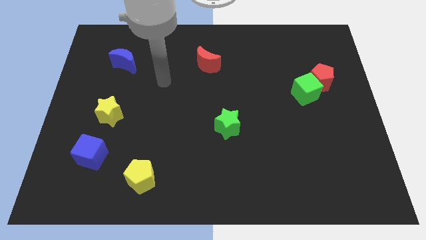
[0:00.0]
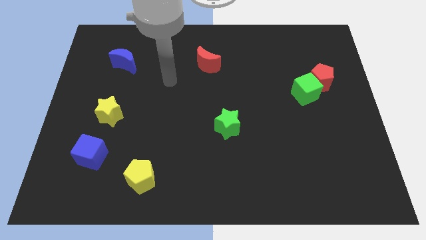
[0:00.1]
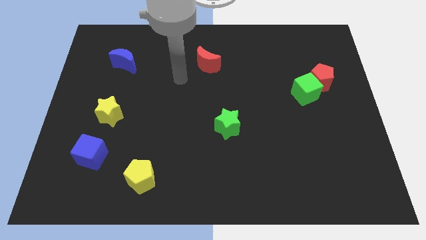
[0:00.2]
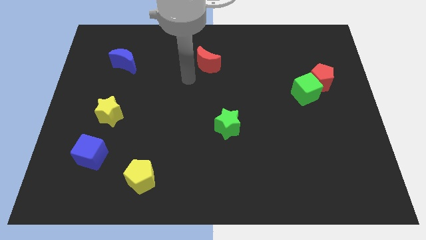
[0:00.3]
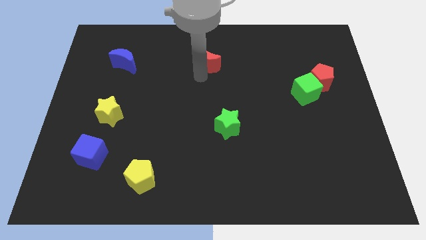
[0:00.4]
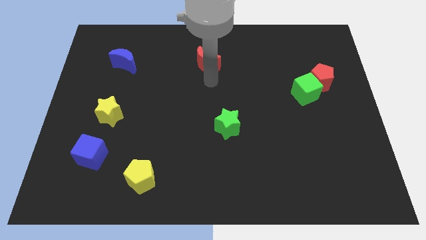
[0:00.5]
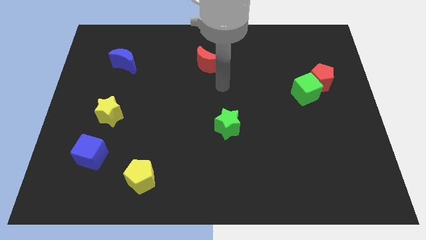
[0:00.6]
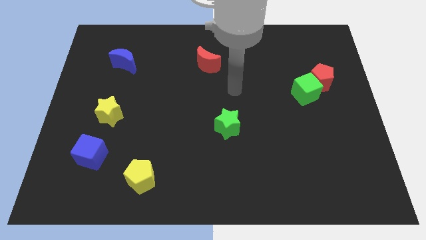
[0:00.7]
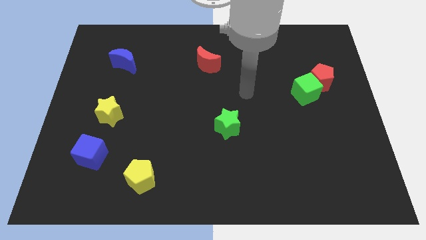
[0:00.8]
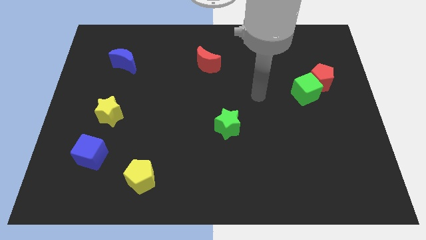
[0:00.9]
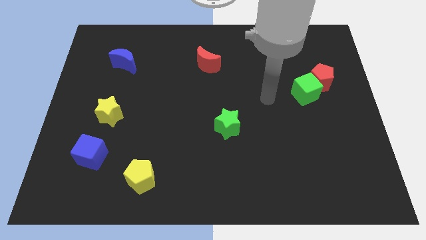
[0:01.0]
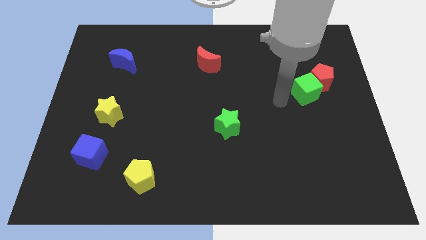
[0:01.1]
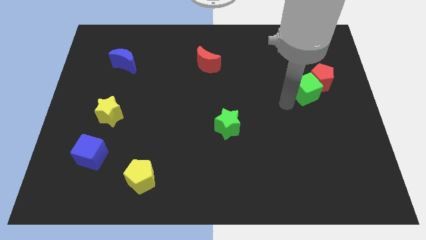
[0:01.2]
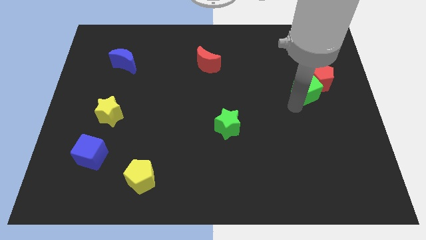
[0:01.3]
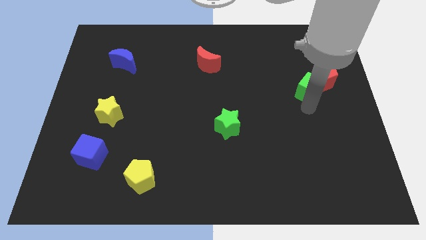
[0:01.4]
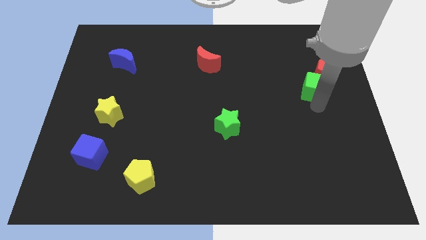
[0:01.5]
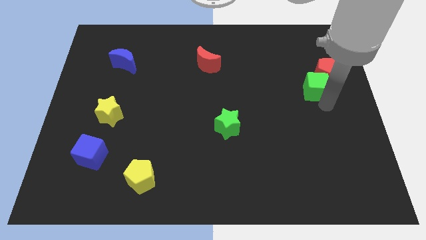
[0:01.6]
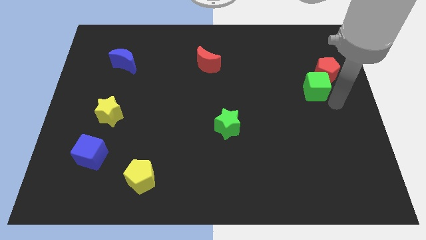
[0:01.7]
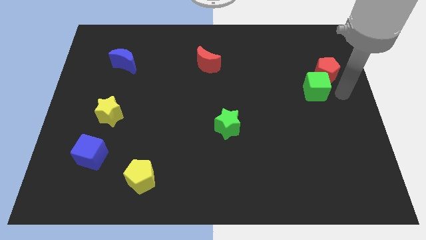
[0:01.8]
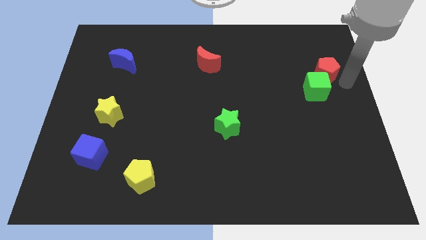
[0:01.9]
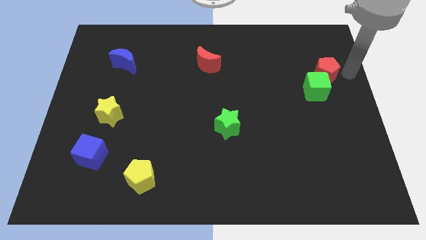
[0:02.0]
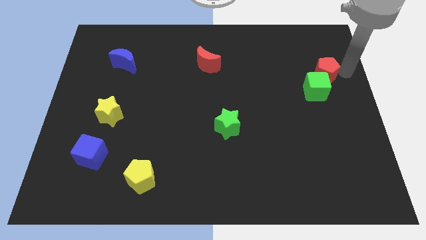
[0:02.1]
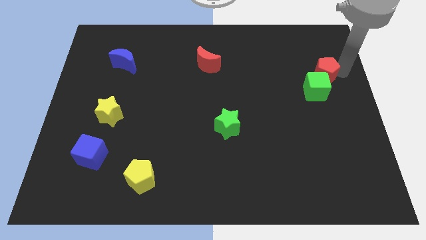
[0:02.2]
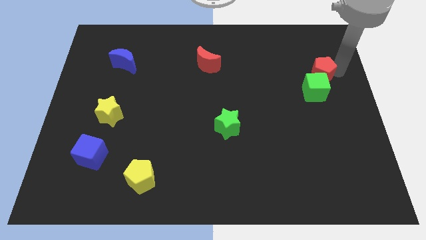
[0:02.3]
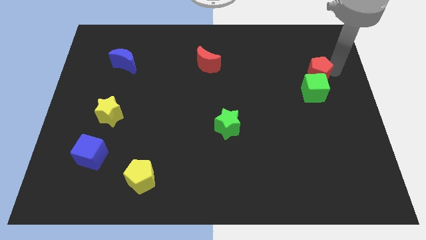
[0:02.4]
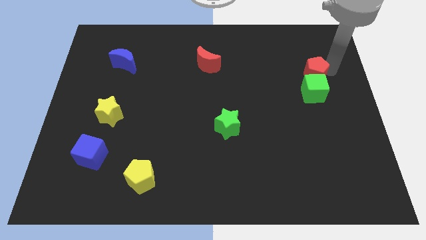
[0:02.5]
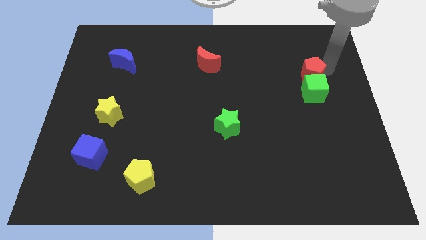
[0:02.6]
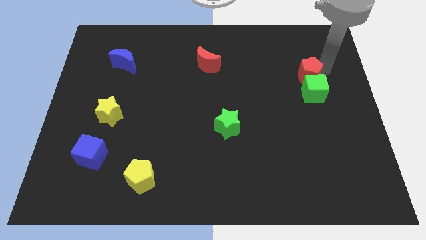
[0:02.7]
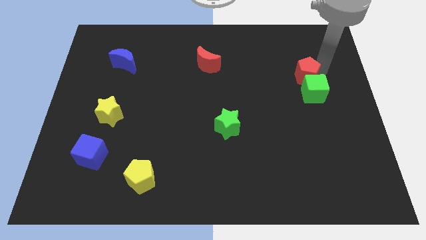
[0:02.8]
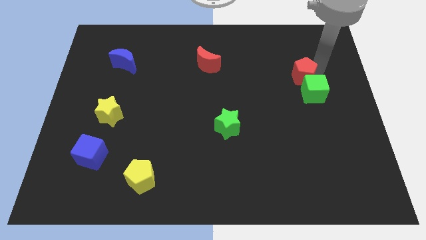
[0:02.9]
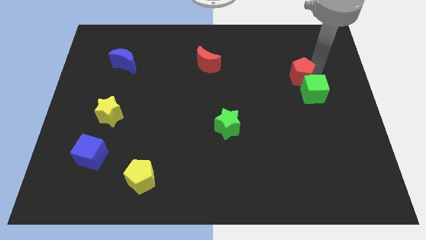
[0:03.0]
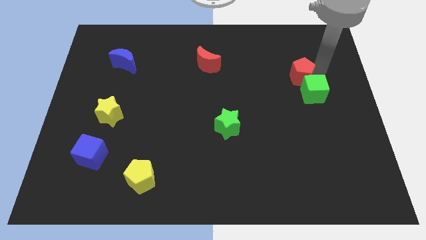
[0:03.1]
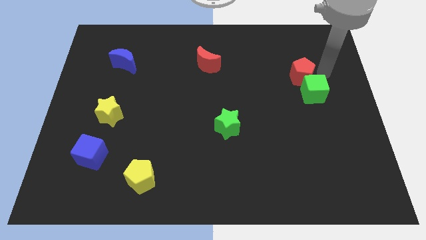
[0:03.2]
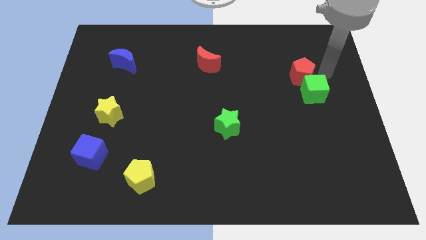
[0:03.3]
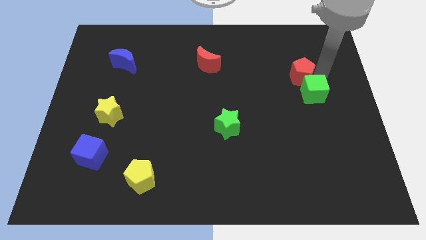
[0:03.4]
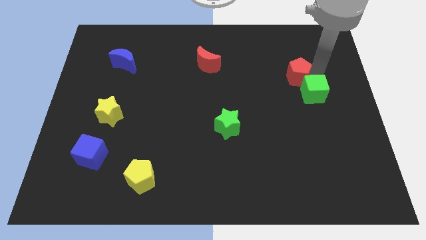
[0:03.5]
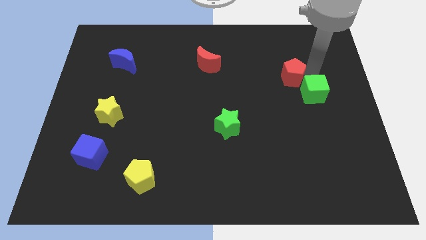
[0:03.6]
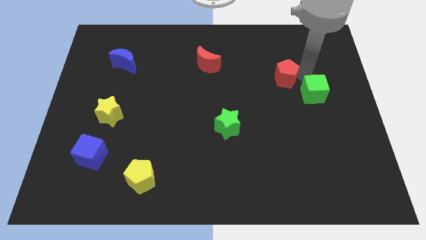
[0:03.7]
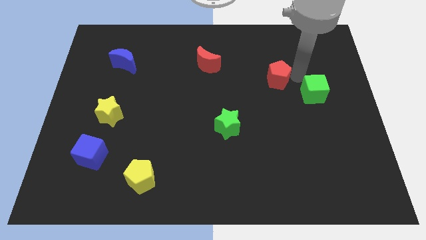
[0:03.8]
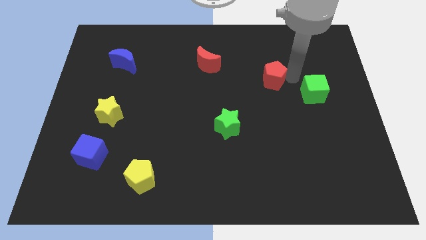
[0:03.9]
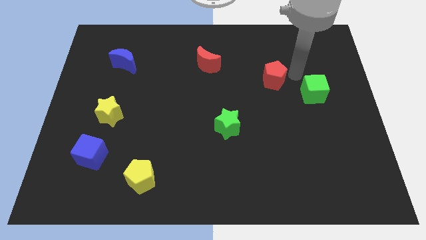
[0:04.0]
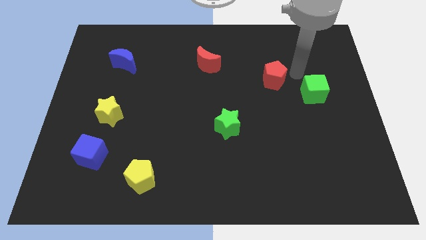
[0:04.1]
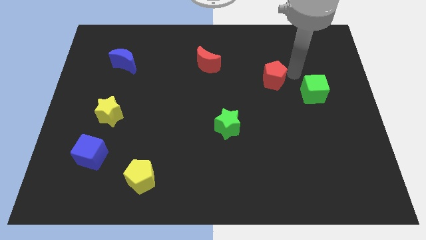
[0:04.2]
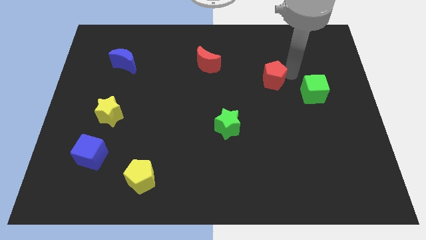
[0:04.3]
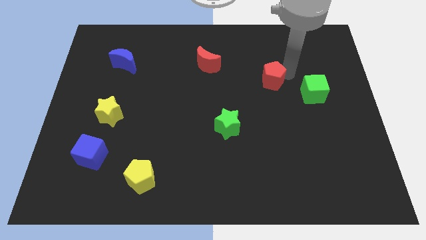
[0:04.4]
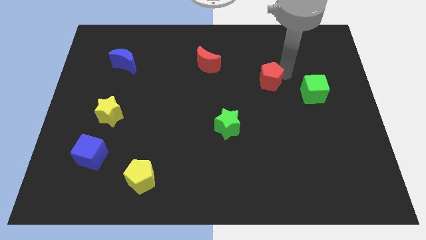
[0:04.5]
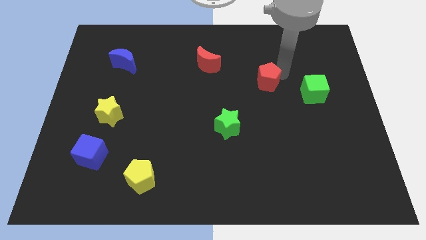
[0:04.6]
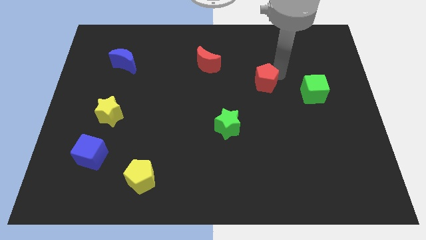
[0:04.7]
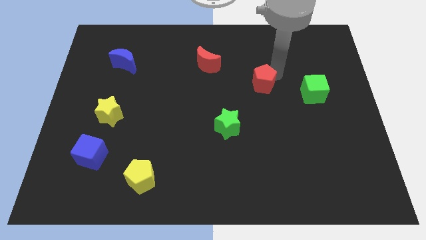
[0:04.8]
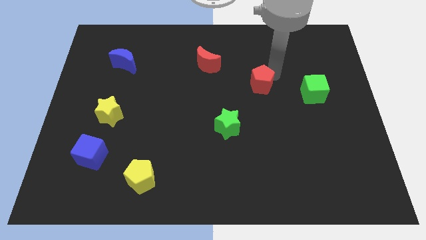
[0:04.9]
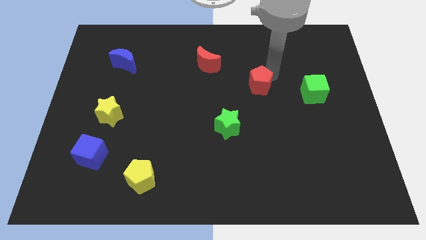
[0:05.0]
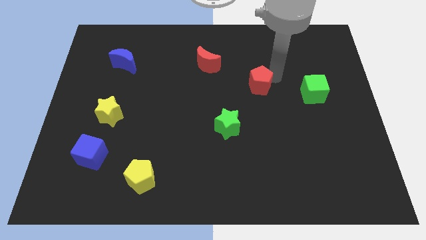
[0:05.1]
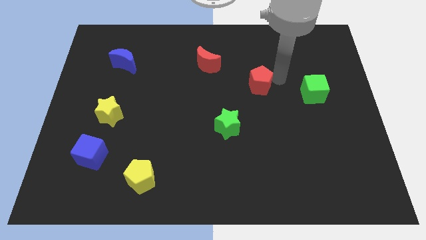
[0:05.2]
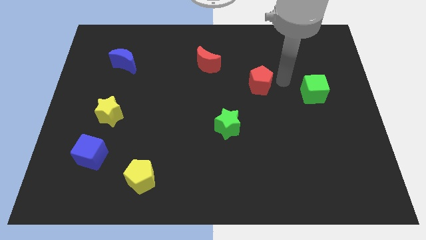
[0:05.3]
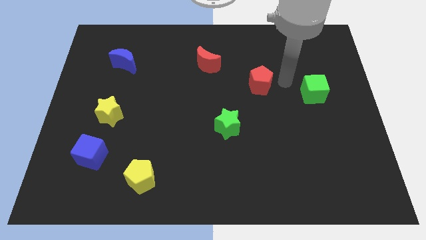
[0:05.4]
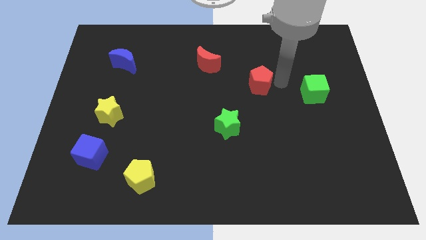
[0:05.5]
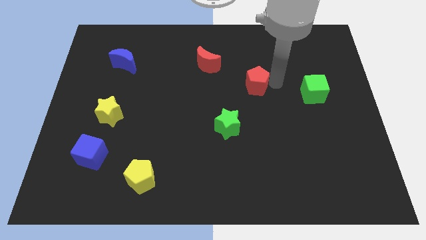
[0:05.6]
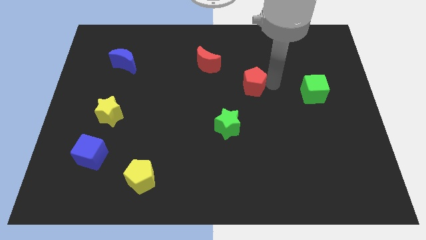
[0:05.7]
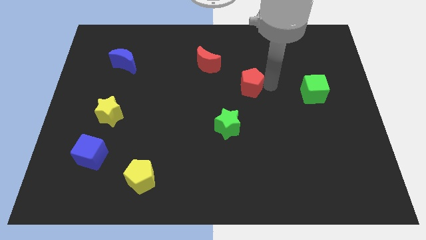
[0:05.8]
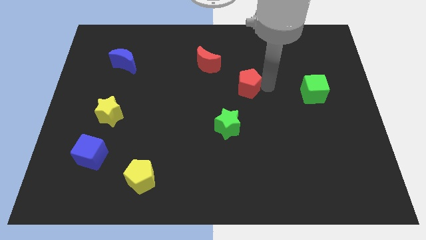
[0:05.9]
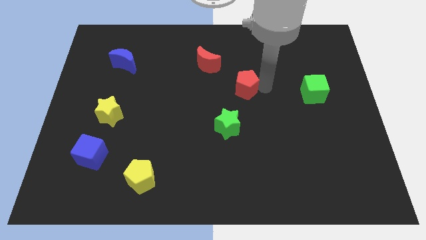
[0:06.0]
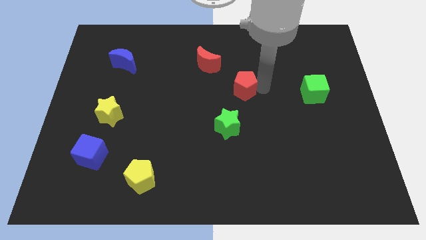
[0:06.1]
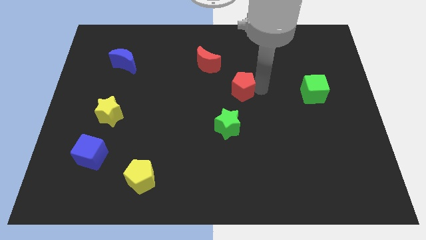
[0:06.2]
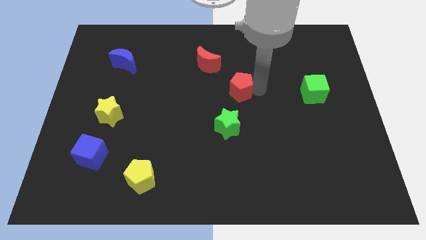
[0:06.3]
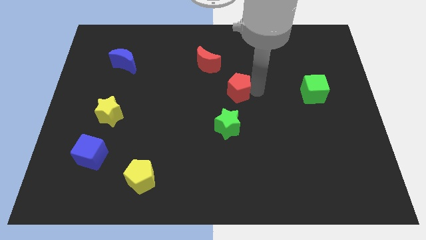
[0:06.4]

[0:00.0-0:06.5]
push the red pentagon left

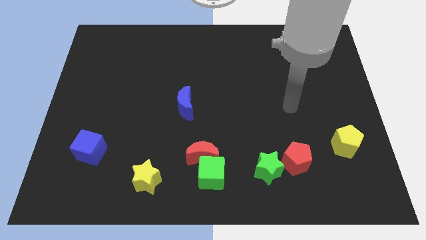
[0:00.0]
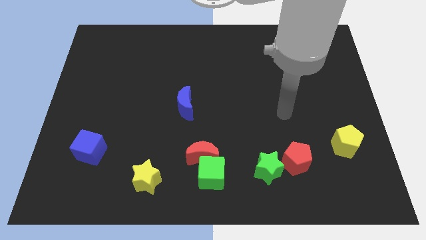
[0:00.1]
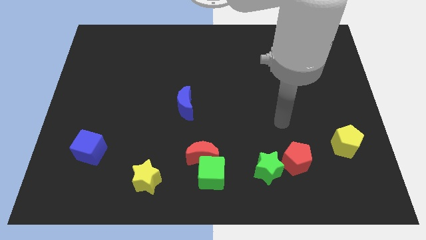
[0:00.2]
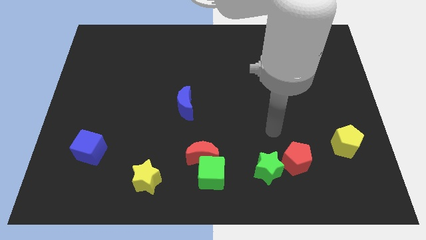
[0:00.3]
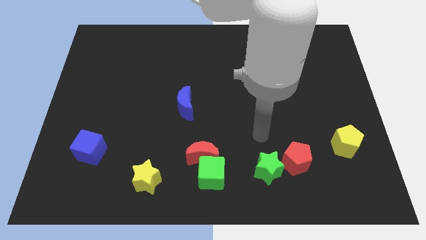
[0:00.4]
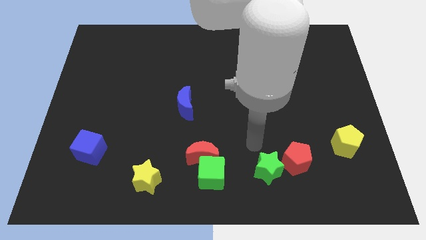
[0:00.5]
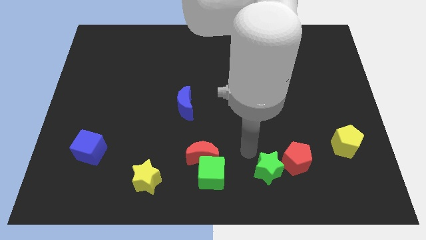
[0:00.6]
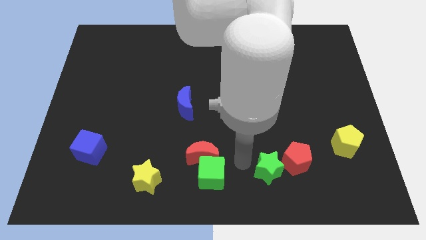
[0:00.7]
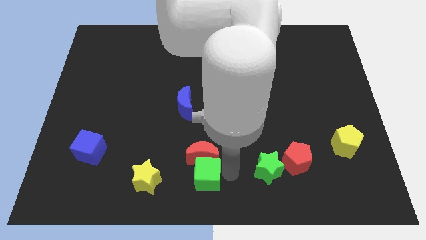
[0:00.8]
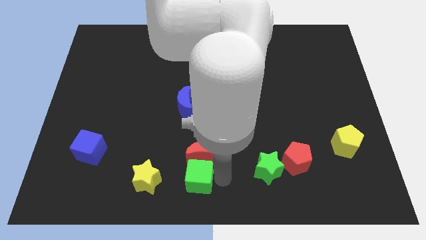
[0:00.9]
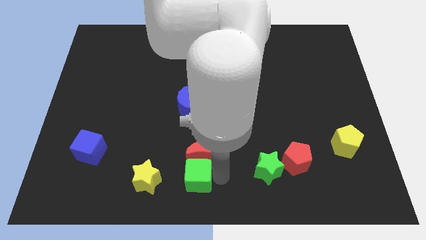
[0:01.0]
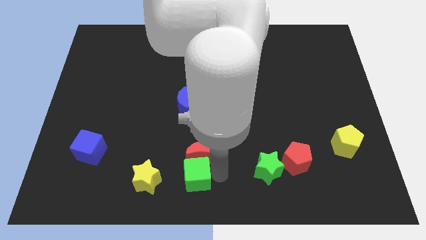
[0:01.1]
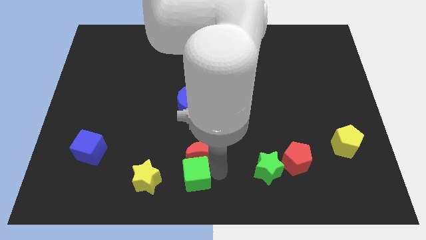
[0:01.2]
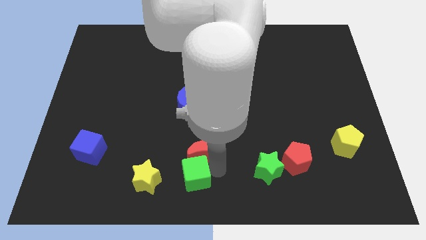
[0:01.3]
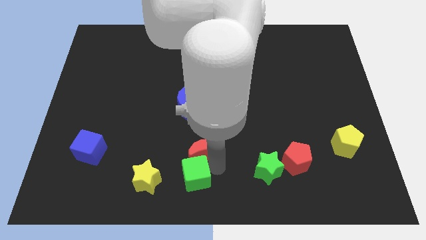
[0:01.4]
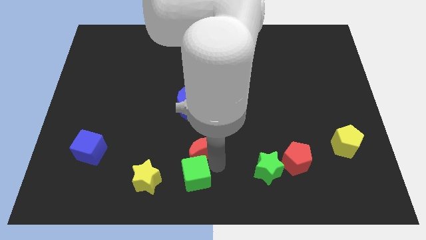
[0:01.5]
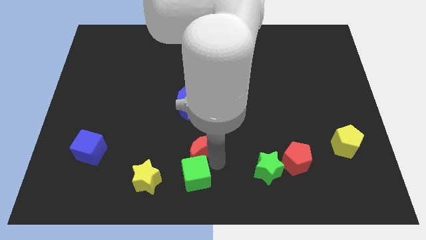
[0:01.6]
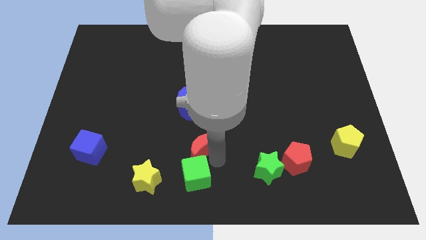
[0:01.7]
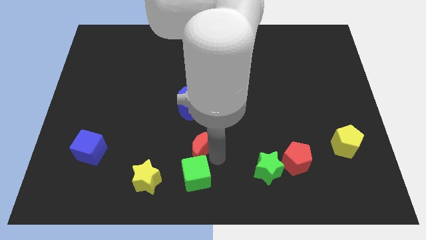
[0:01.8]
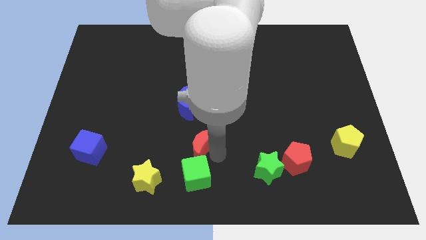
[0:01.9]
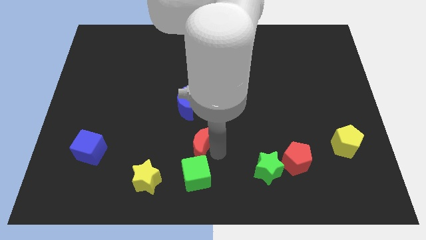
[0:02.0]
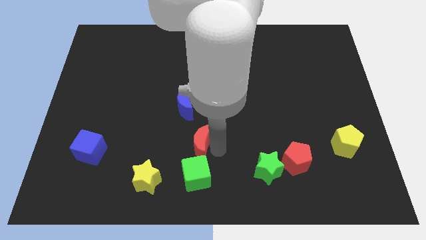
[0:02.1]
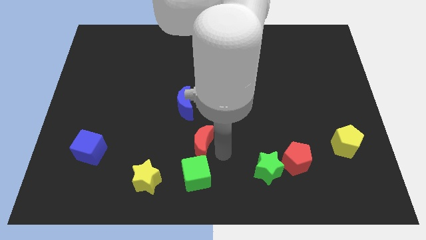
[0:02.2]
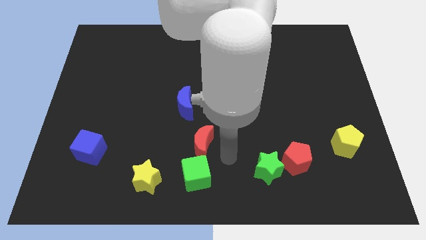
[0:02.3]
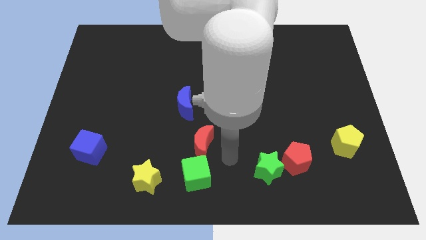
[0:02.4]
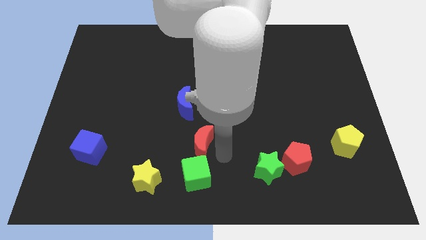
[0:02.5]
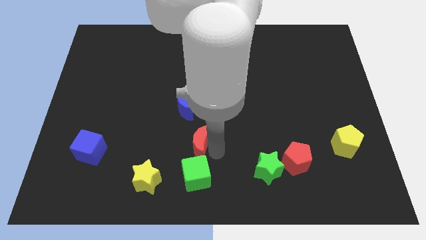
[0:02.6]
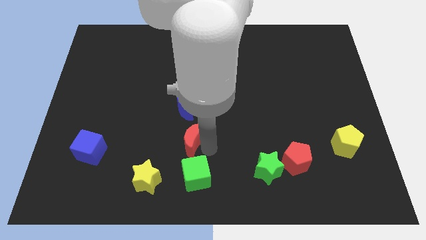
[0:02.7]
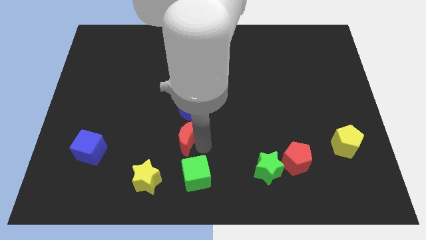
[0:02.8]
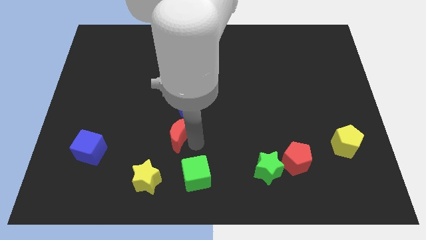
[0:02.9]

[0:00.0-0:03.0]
push the red moon somewhat up and to the left
